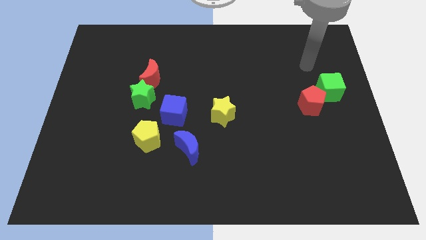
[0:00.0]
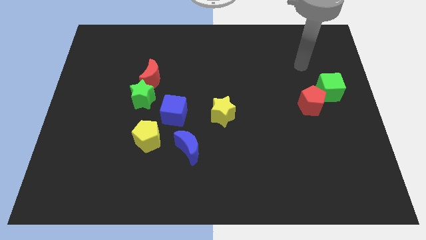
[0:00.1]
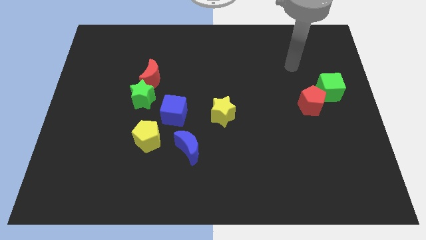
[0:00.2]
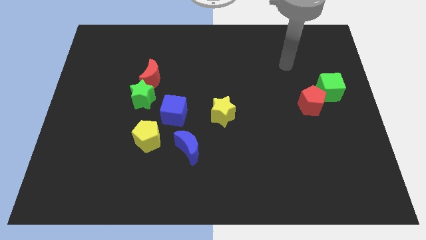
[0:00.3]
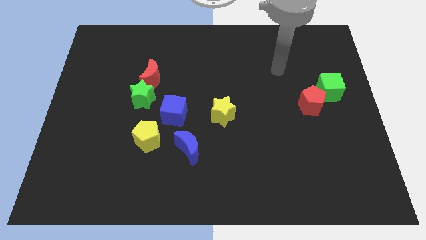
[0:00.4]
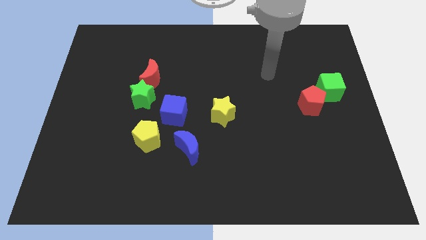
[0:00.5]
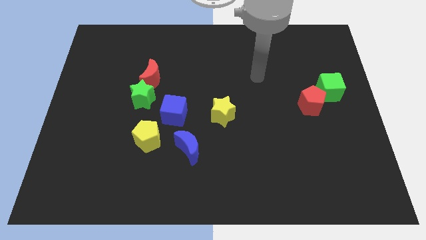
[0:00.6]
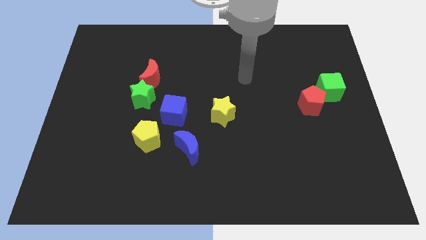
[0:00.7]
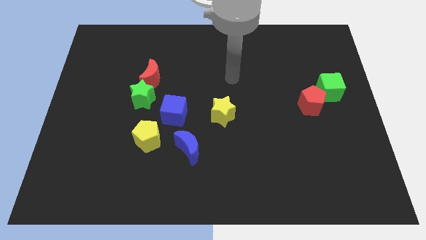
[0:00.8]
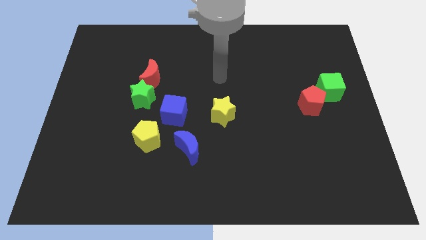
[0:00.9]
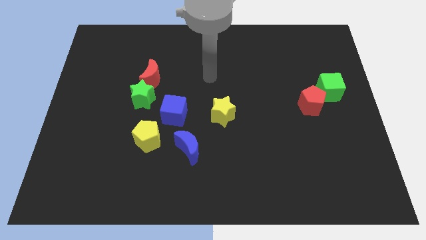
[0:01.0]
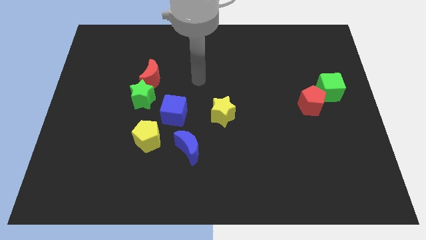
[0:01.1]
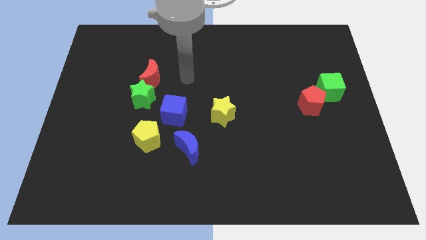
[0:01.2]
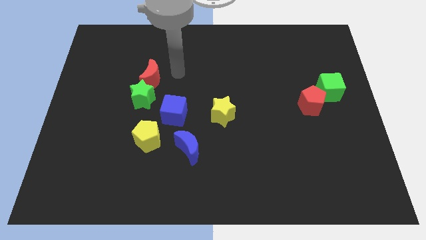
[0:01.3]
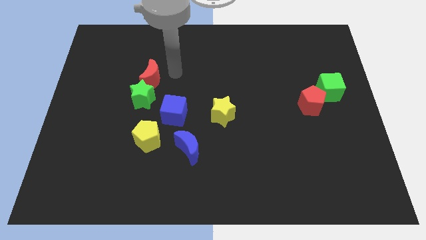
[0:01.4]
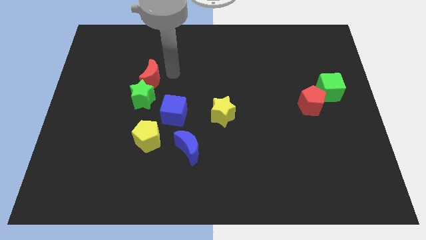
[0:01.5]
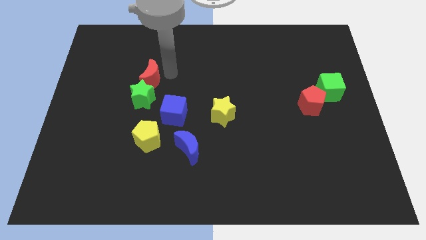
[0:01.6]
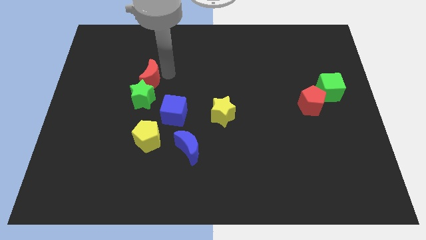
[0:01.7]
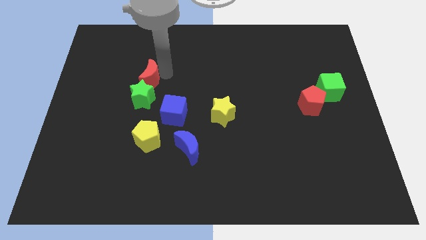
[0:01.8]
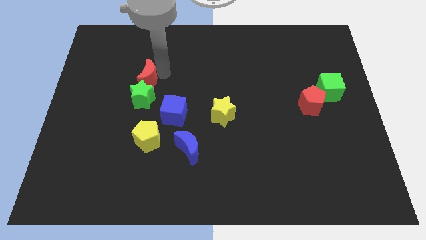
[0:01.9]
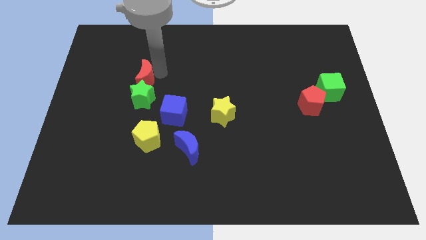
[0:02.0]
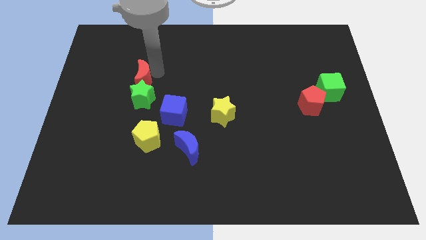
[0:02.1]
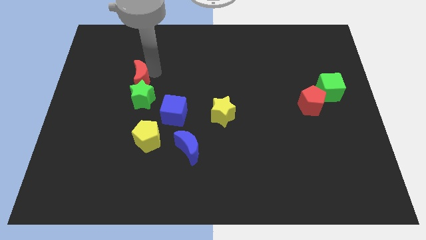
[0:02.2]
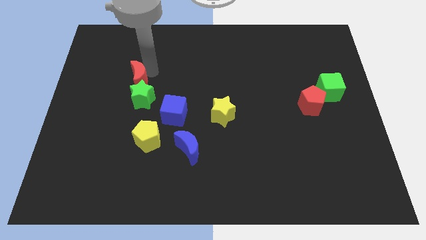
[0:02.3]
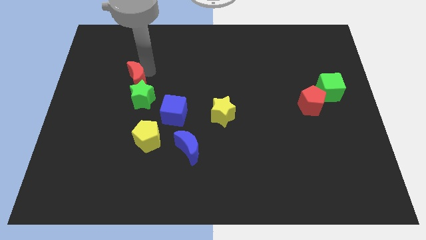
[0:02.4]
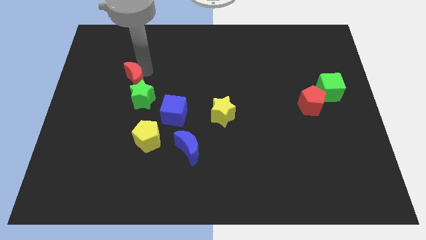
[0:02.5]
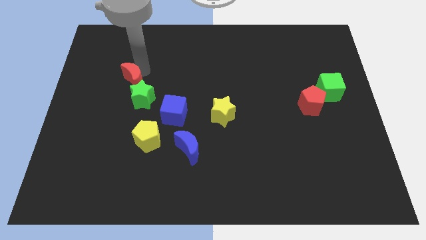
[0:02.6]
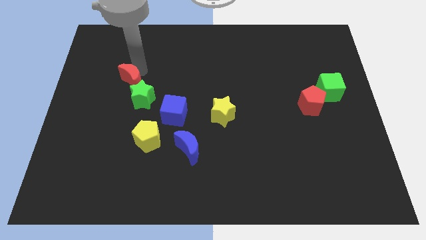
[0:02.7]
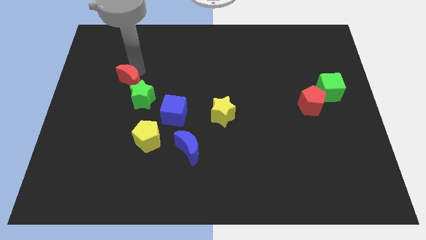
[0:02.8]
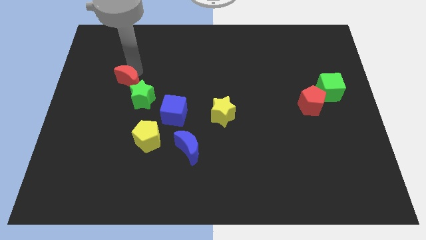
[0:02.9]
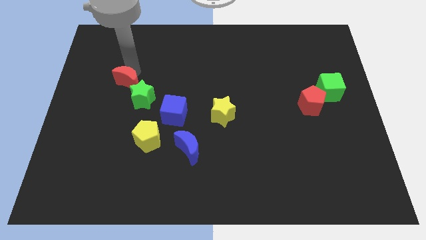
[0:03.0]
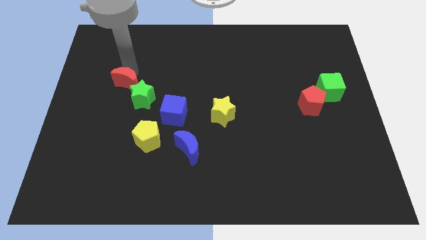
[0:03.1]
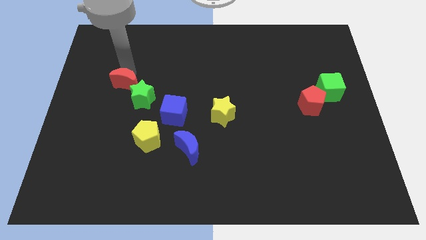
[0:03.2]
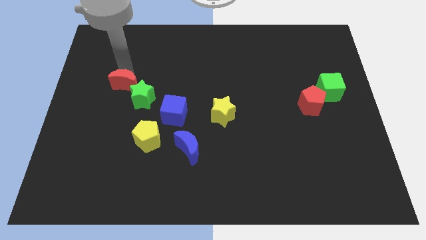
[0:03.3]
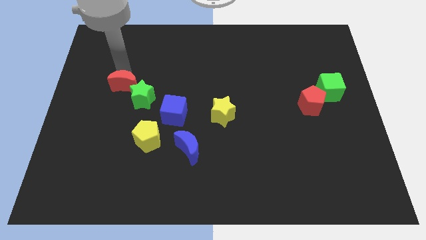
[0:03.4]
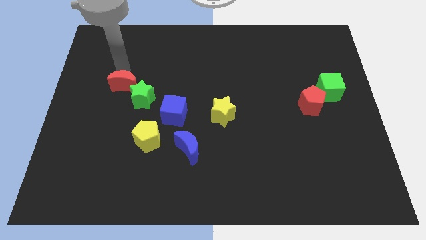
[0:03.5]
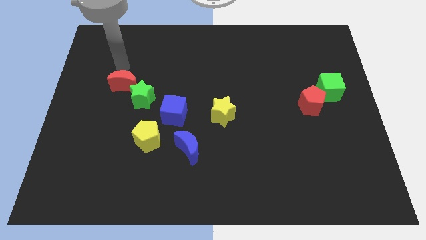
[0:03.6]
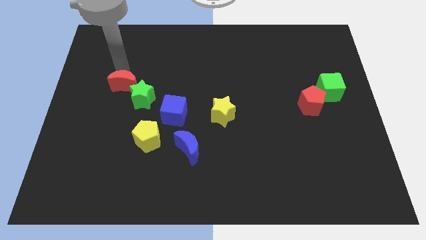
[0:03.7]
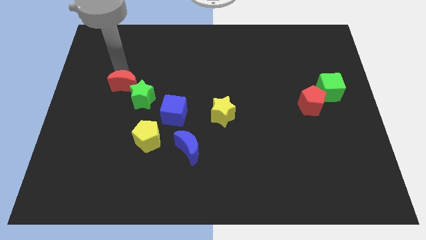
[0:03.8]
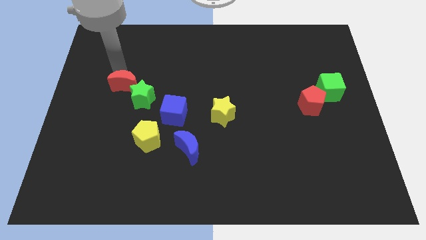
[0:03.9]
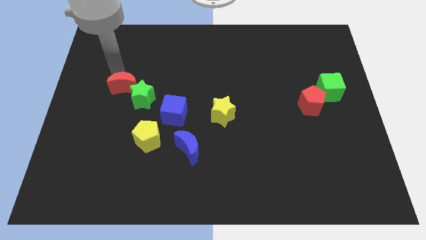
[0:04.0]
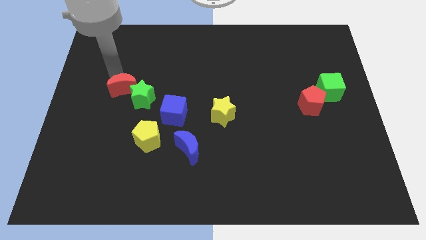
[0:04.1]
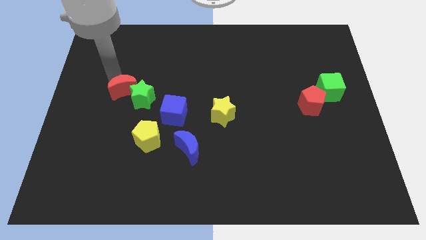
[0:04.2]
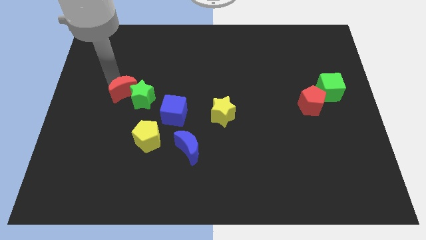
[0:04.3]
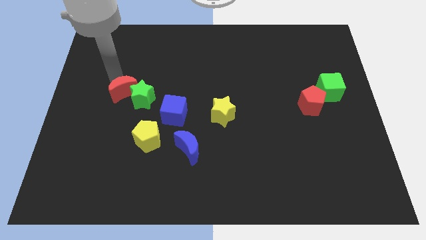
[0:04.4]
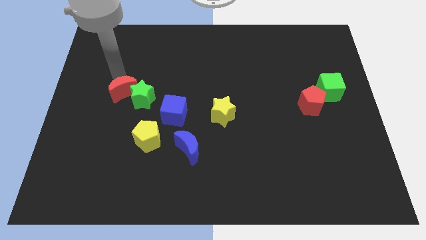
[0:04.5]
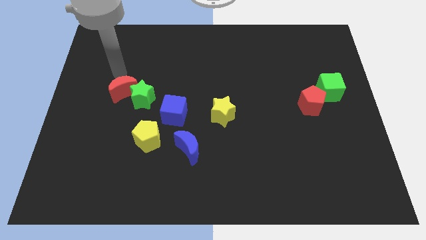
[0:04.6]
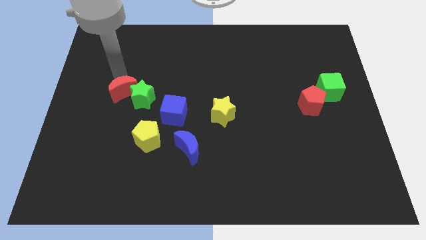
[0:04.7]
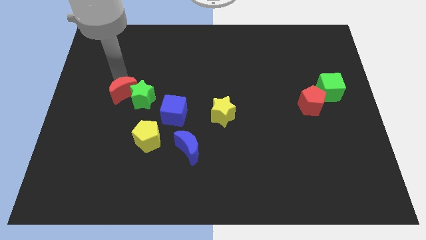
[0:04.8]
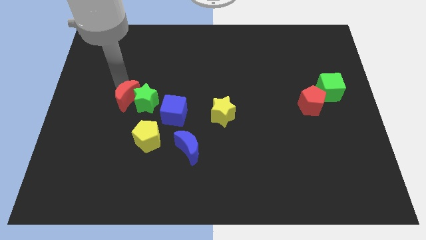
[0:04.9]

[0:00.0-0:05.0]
slide the red moon just left of the blue cube

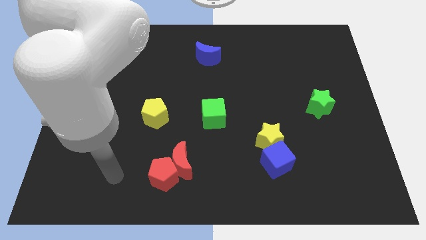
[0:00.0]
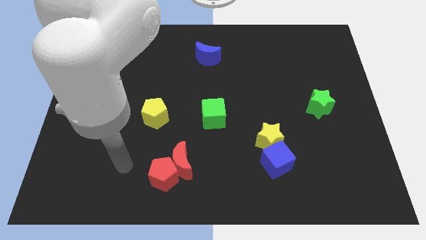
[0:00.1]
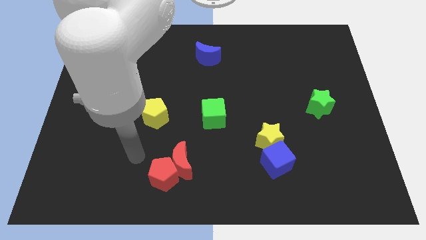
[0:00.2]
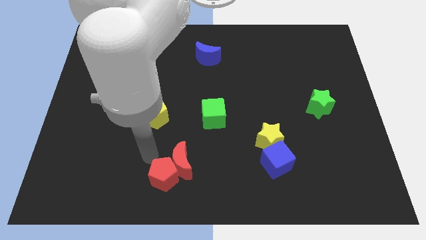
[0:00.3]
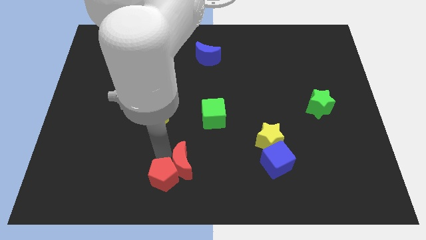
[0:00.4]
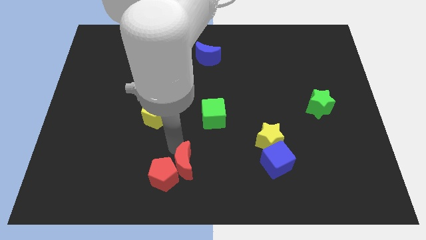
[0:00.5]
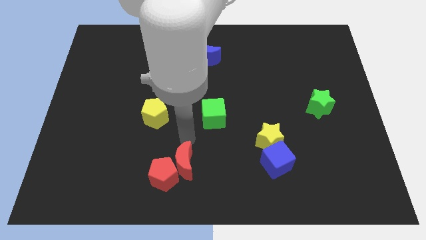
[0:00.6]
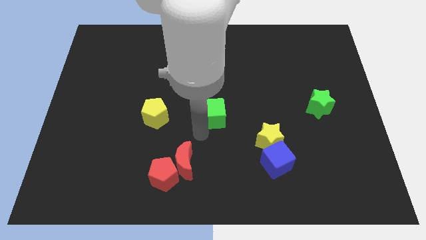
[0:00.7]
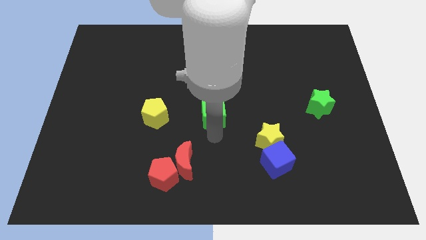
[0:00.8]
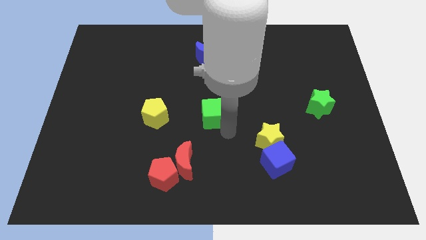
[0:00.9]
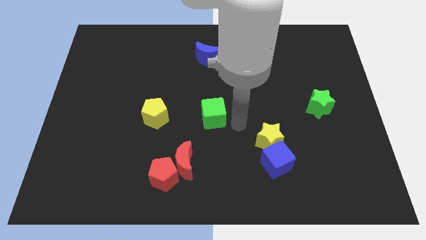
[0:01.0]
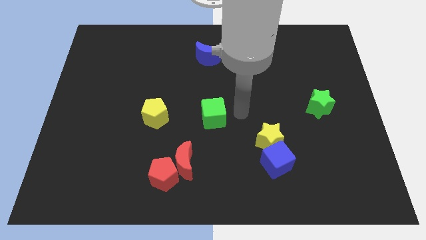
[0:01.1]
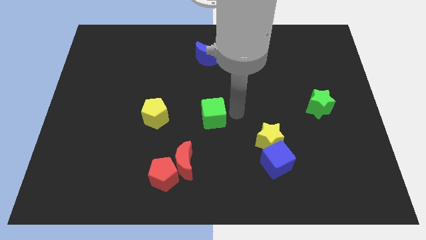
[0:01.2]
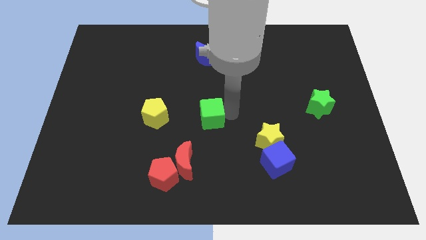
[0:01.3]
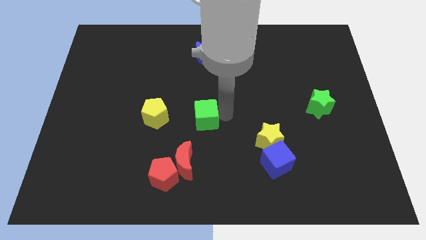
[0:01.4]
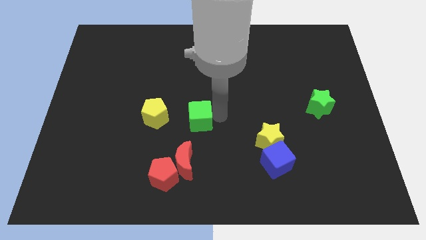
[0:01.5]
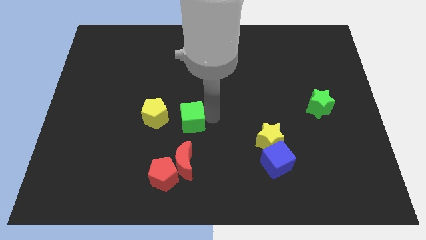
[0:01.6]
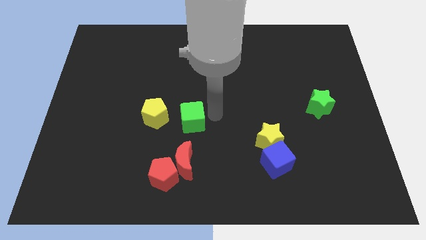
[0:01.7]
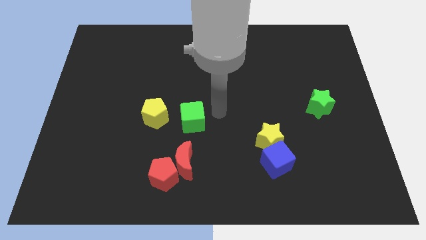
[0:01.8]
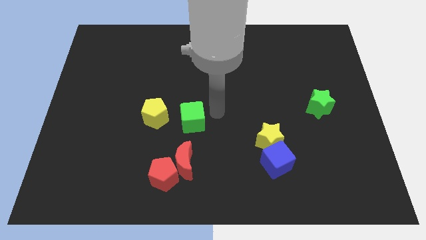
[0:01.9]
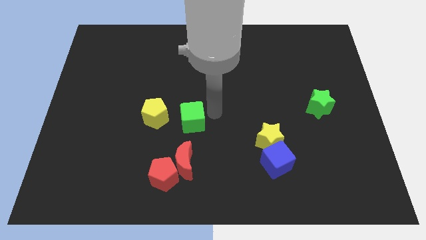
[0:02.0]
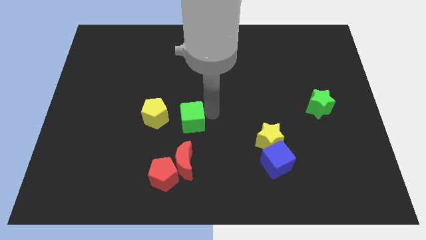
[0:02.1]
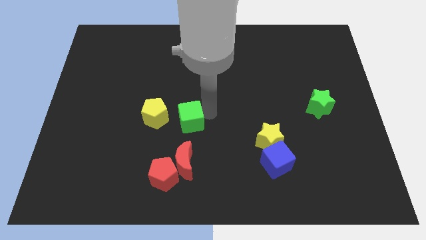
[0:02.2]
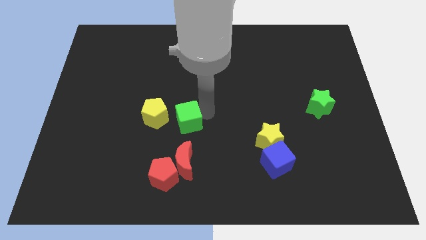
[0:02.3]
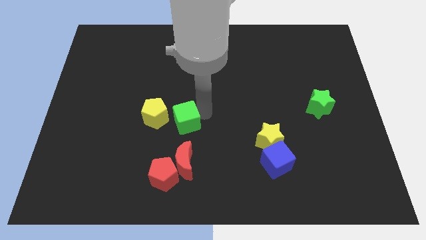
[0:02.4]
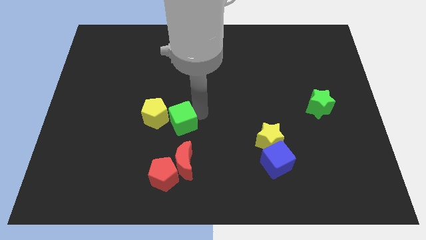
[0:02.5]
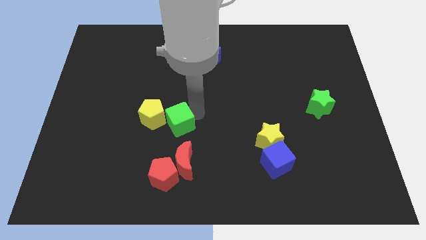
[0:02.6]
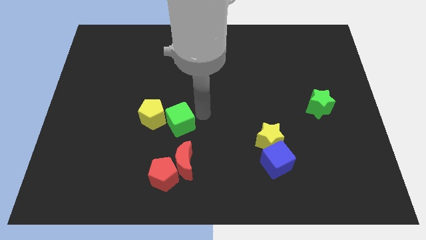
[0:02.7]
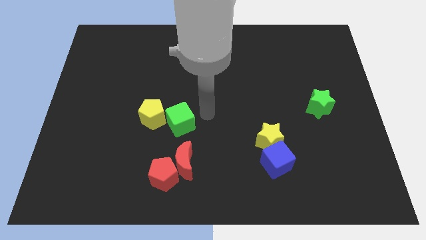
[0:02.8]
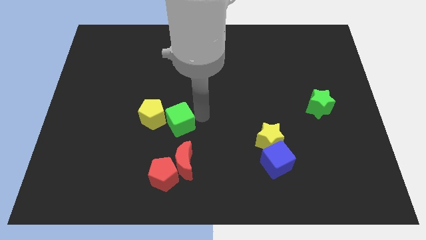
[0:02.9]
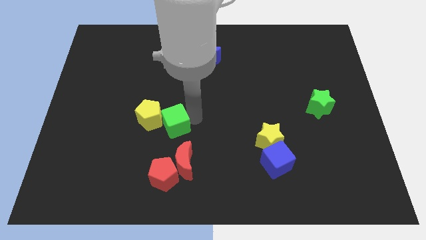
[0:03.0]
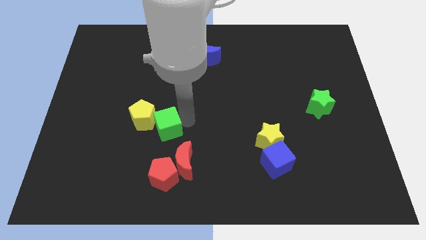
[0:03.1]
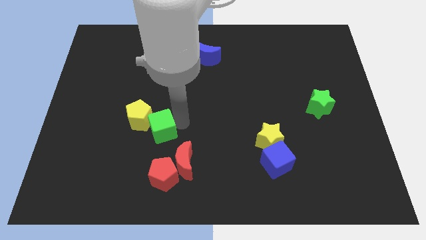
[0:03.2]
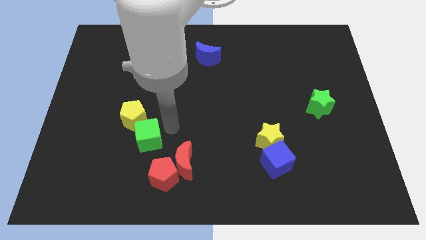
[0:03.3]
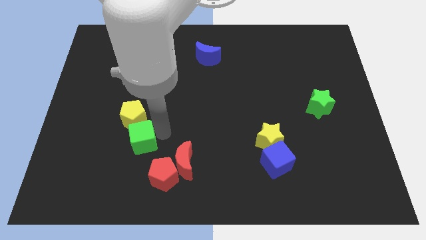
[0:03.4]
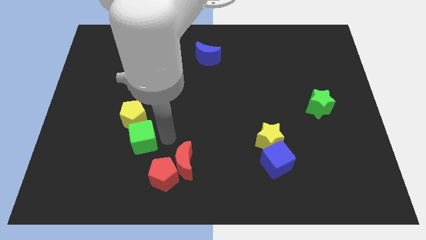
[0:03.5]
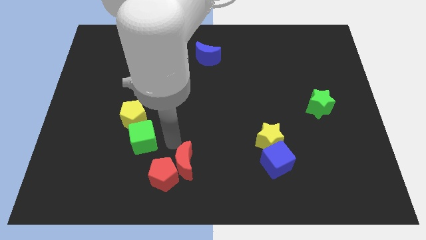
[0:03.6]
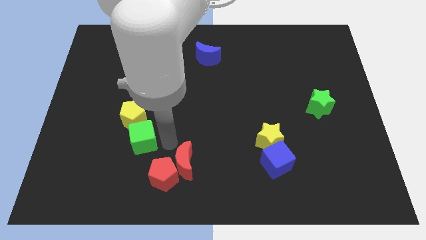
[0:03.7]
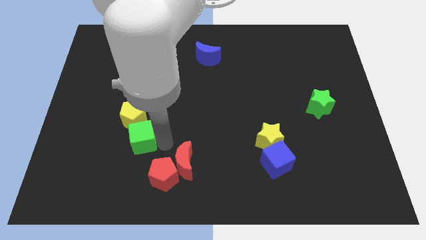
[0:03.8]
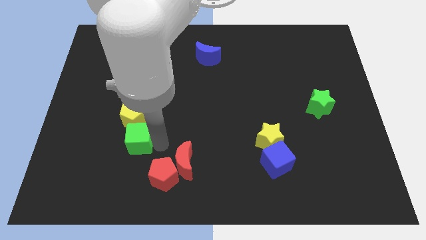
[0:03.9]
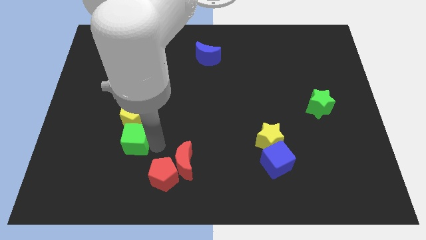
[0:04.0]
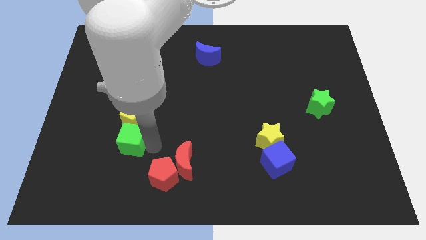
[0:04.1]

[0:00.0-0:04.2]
slide the green cube to the bottom left of the yellow pentagon
